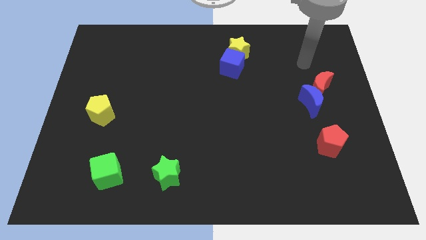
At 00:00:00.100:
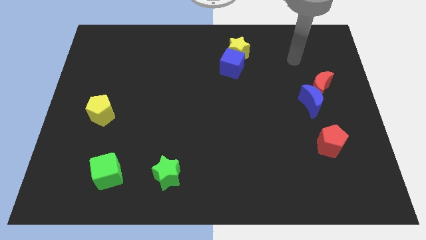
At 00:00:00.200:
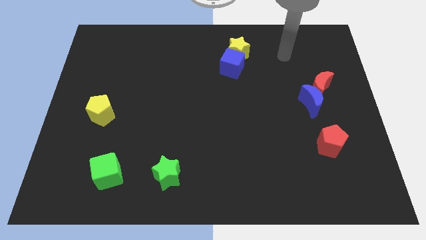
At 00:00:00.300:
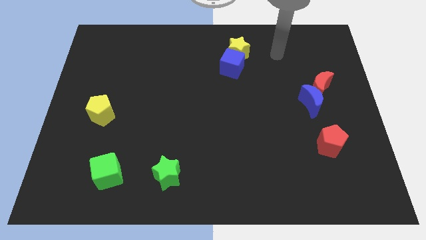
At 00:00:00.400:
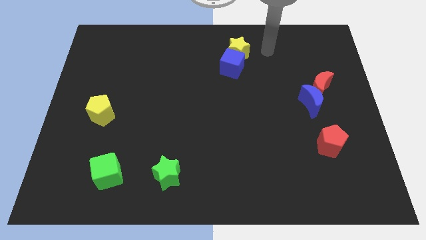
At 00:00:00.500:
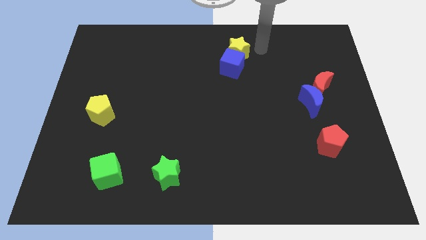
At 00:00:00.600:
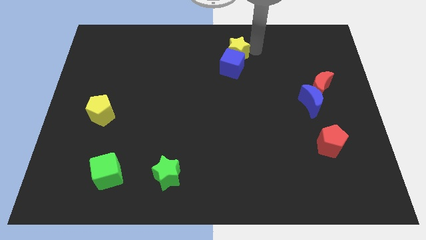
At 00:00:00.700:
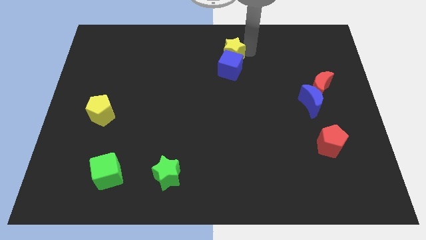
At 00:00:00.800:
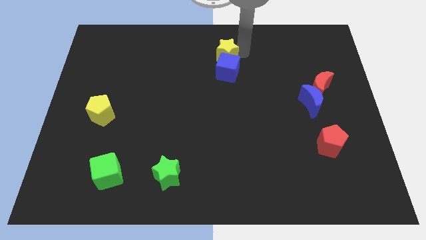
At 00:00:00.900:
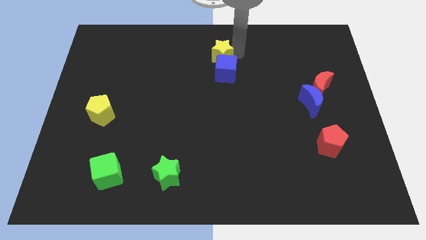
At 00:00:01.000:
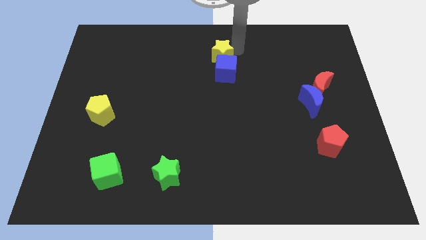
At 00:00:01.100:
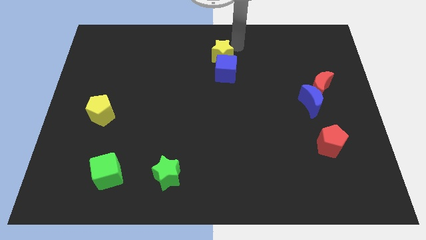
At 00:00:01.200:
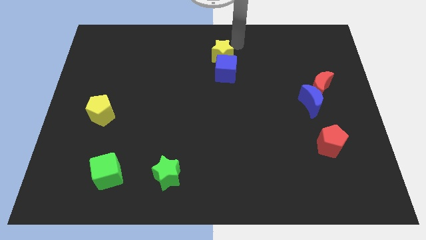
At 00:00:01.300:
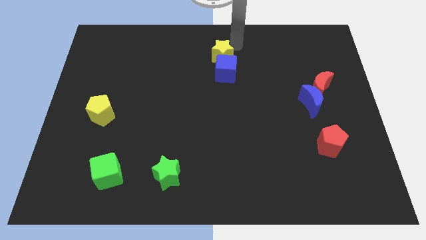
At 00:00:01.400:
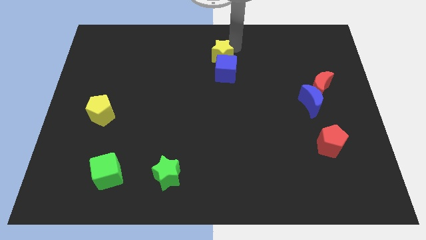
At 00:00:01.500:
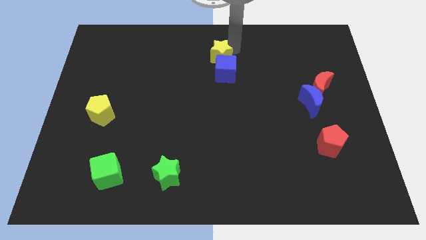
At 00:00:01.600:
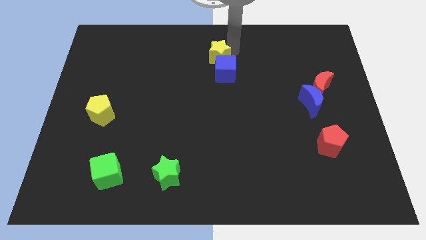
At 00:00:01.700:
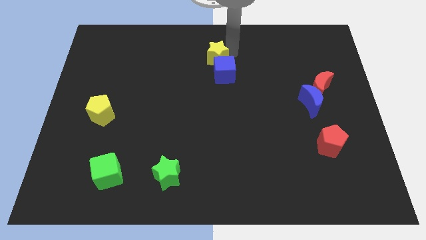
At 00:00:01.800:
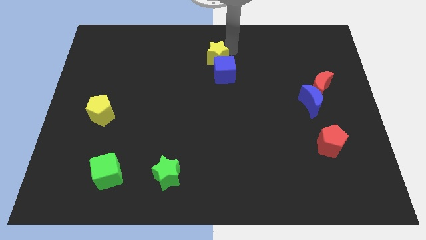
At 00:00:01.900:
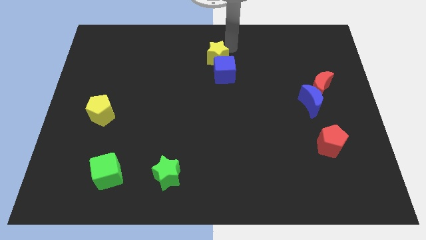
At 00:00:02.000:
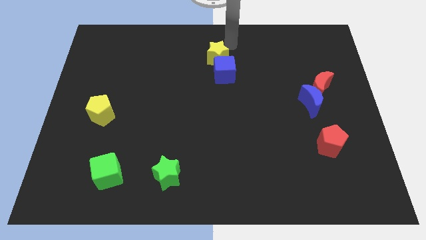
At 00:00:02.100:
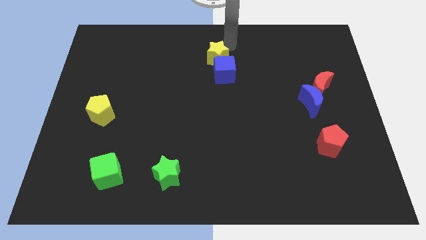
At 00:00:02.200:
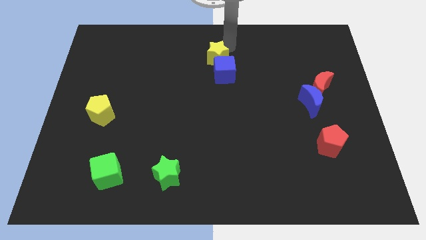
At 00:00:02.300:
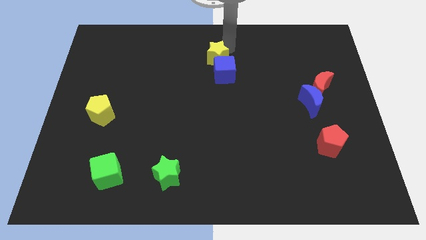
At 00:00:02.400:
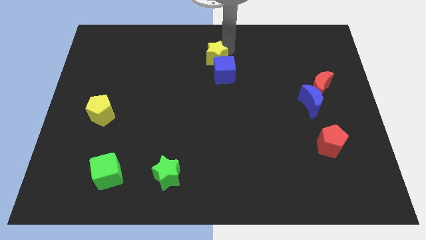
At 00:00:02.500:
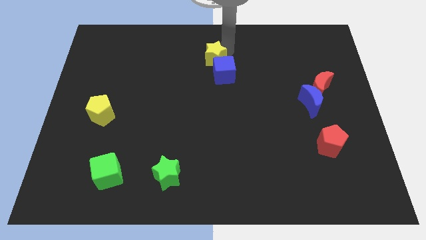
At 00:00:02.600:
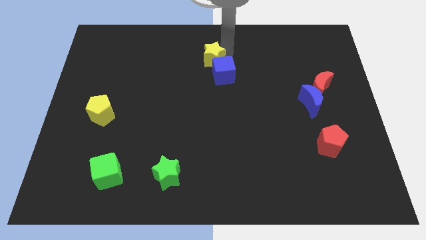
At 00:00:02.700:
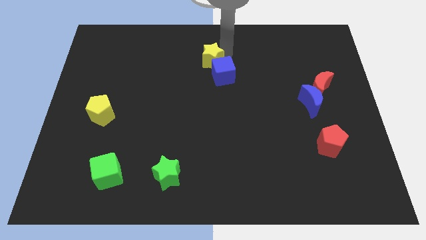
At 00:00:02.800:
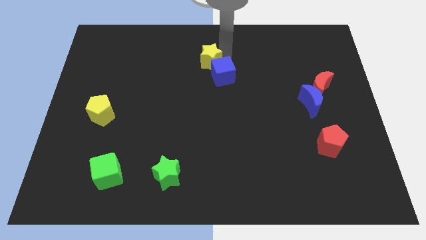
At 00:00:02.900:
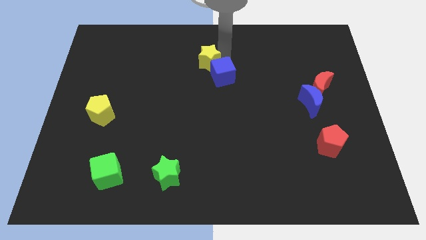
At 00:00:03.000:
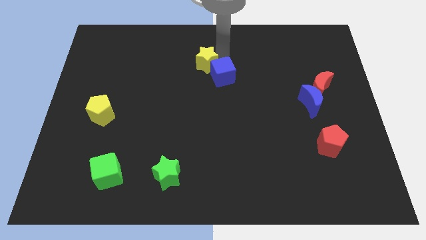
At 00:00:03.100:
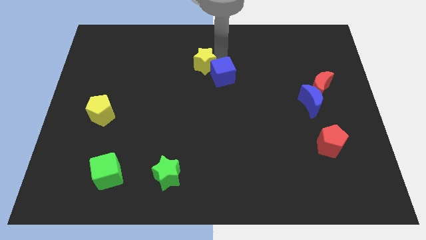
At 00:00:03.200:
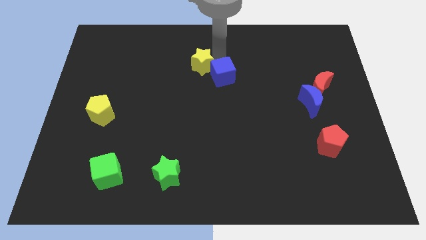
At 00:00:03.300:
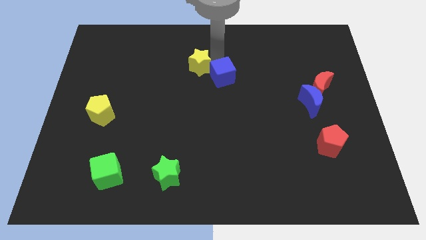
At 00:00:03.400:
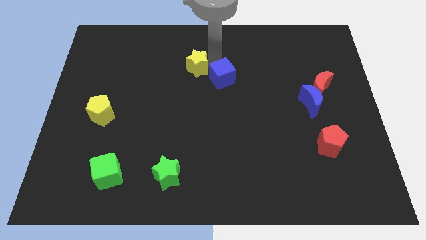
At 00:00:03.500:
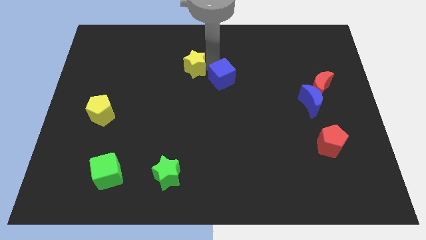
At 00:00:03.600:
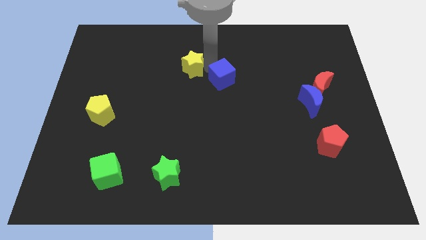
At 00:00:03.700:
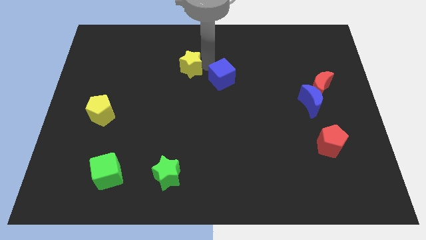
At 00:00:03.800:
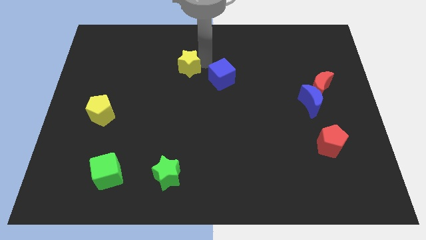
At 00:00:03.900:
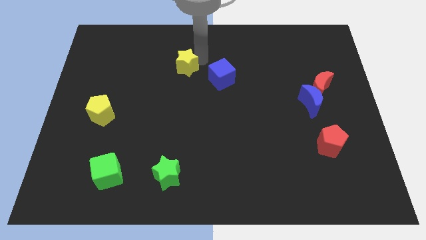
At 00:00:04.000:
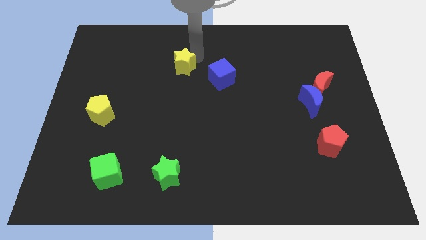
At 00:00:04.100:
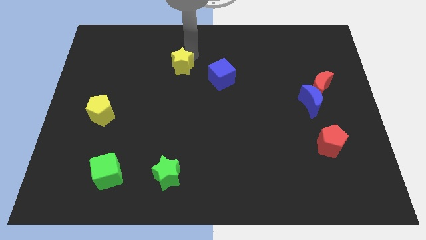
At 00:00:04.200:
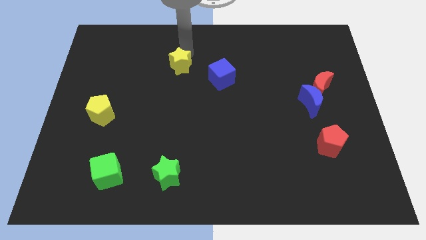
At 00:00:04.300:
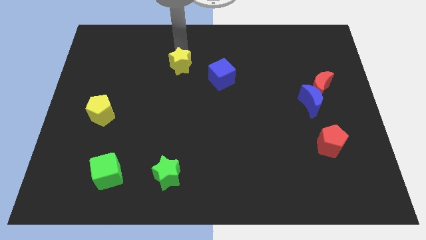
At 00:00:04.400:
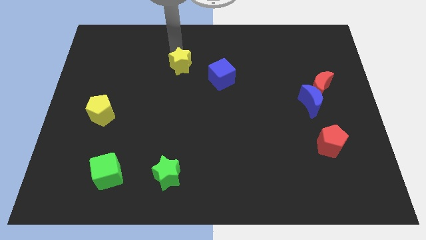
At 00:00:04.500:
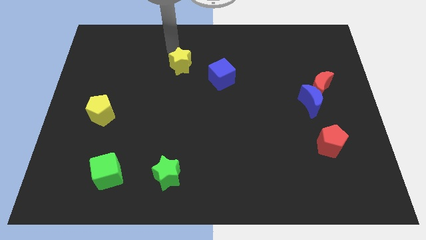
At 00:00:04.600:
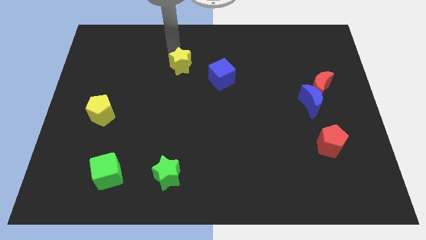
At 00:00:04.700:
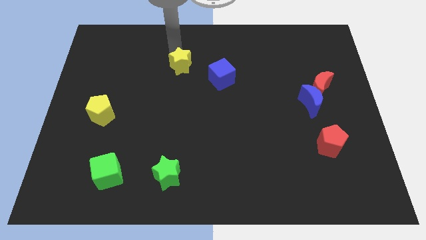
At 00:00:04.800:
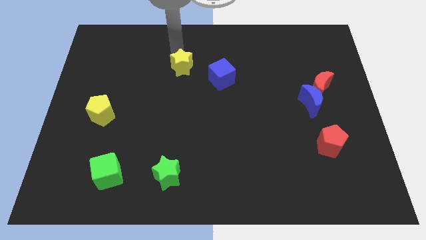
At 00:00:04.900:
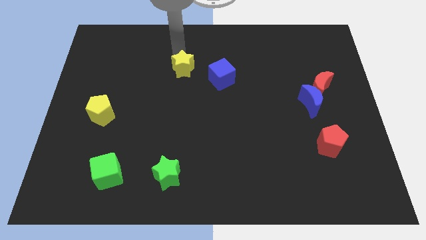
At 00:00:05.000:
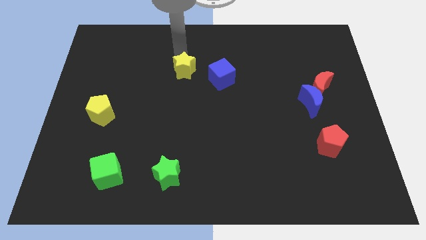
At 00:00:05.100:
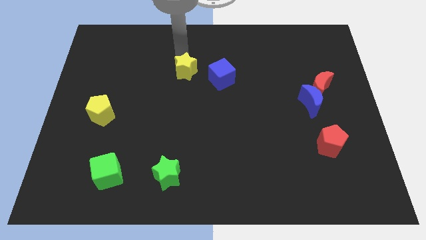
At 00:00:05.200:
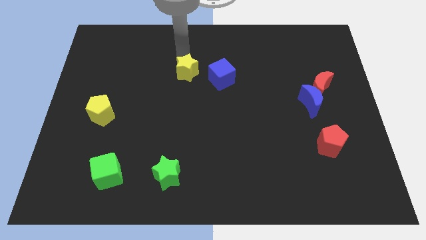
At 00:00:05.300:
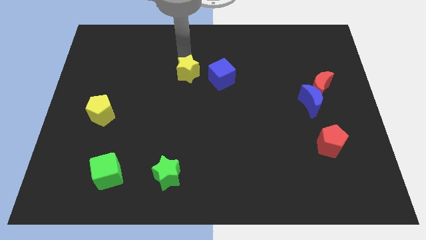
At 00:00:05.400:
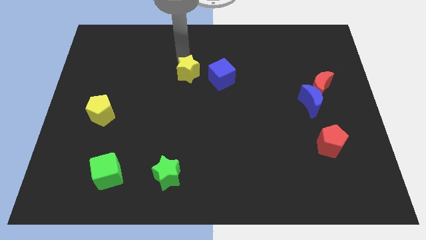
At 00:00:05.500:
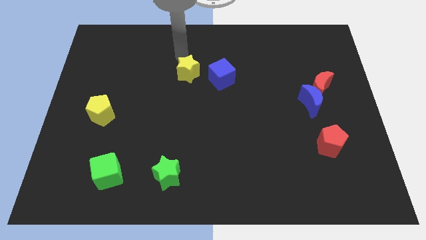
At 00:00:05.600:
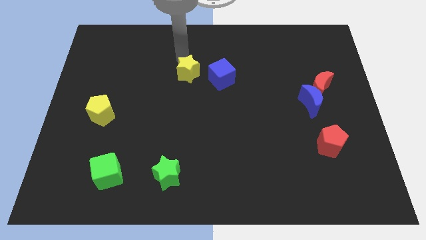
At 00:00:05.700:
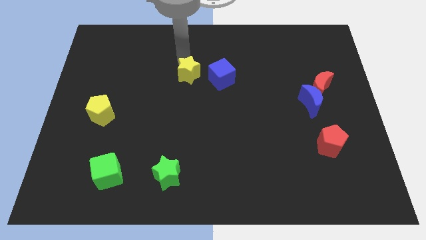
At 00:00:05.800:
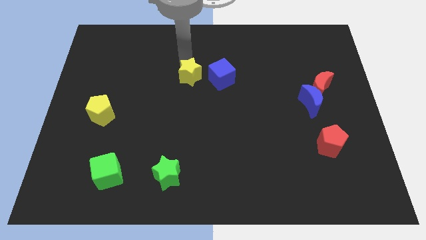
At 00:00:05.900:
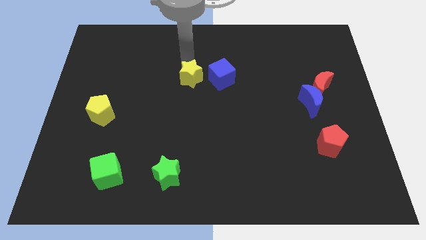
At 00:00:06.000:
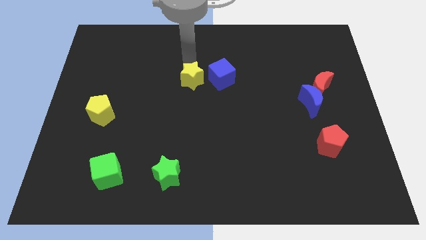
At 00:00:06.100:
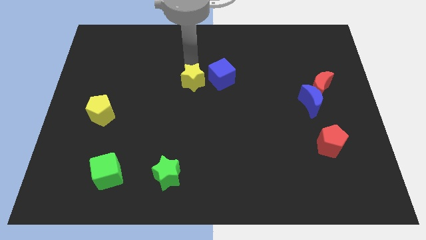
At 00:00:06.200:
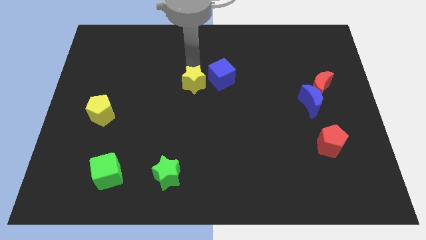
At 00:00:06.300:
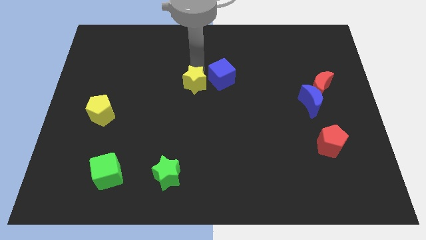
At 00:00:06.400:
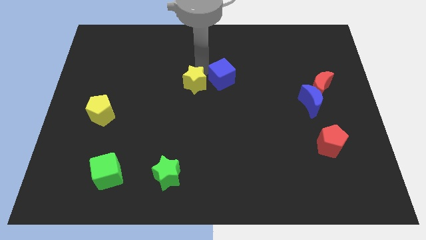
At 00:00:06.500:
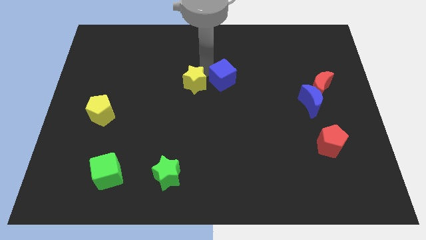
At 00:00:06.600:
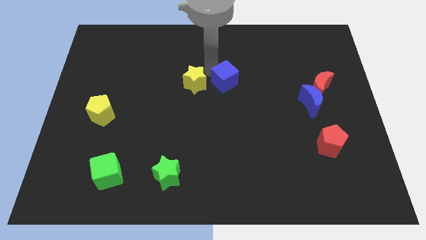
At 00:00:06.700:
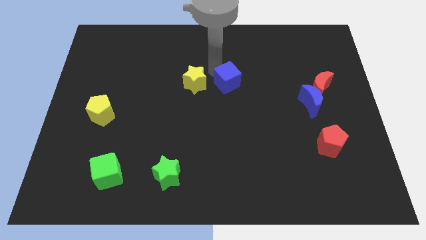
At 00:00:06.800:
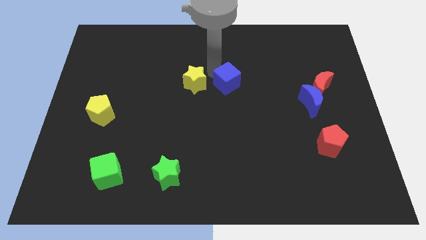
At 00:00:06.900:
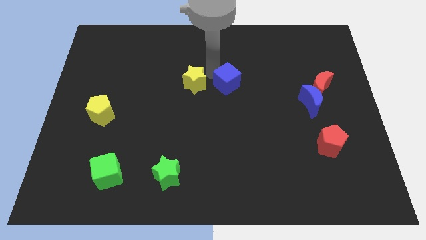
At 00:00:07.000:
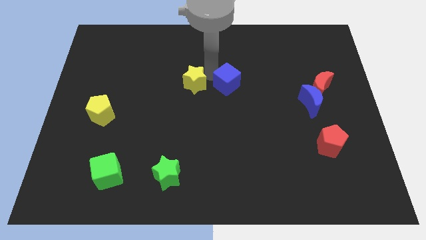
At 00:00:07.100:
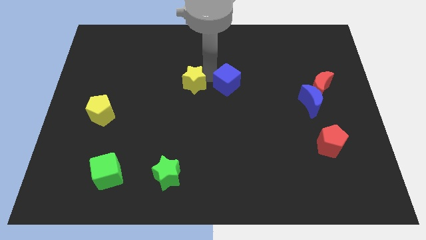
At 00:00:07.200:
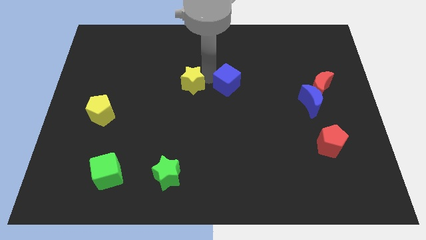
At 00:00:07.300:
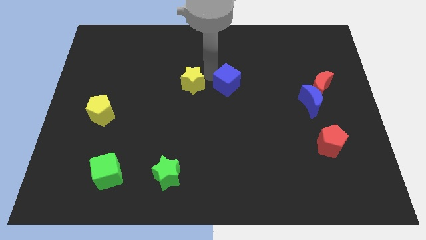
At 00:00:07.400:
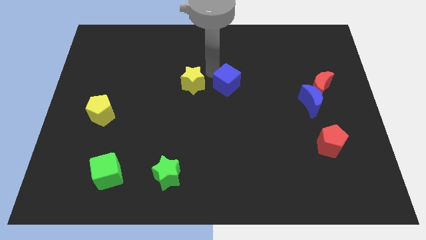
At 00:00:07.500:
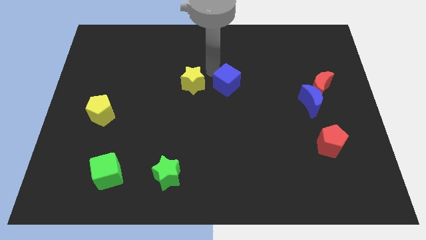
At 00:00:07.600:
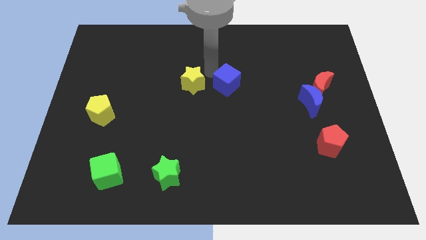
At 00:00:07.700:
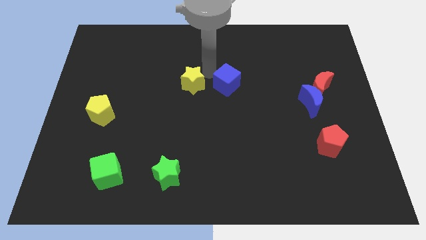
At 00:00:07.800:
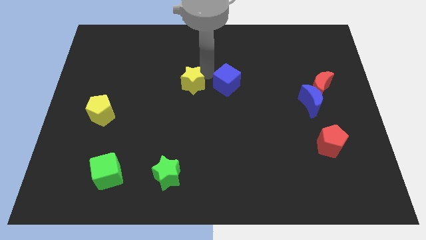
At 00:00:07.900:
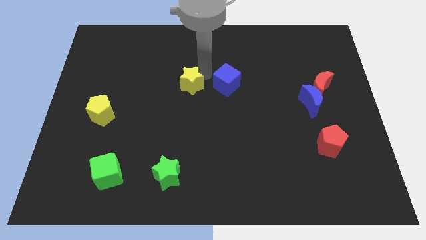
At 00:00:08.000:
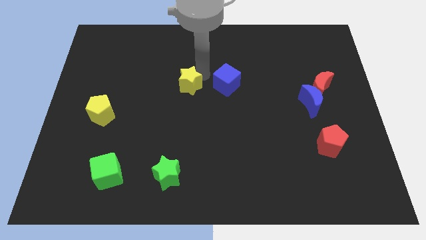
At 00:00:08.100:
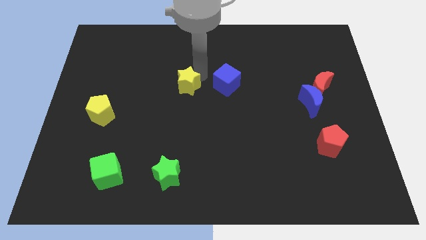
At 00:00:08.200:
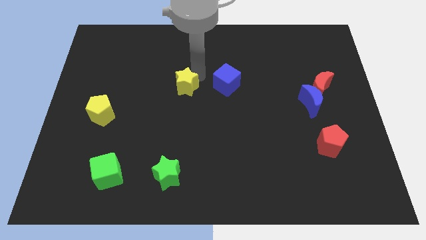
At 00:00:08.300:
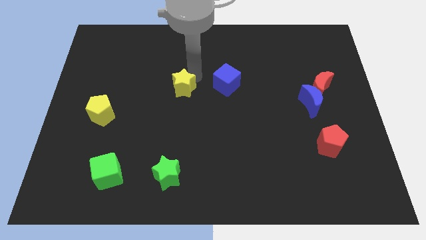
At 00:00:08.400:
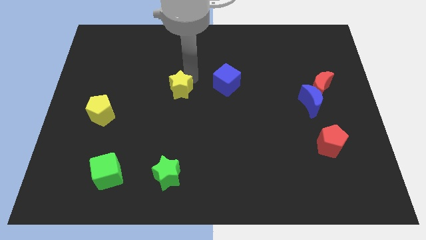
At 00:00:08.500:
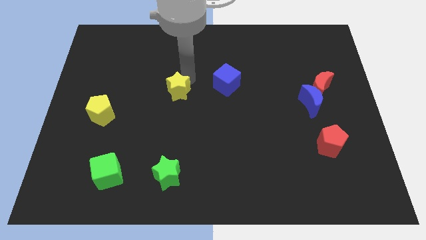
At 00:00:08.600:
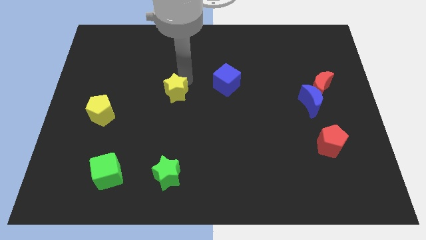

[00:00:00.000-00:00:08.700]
push the yellow star downwards and left
